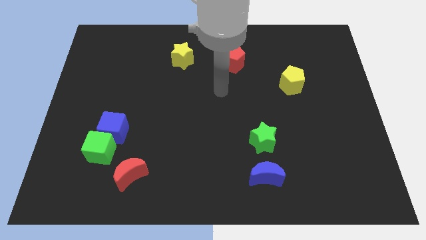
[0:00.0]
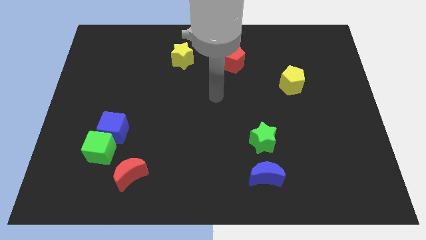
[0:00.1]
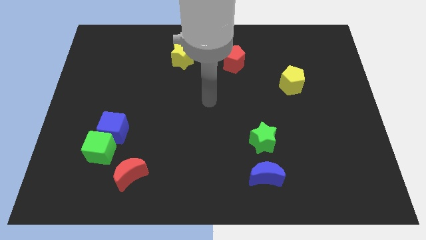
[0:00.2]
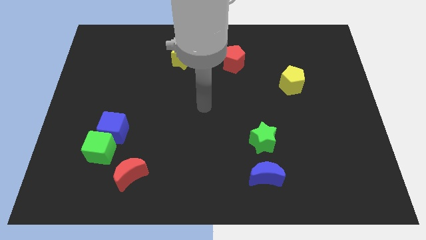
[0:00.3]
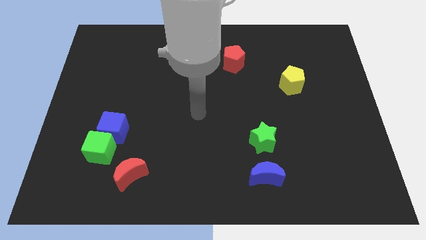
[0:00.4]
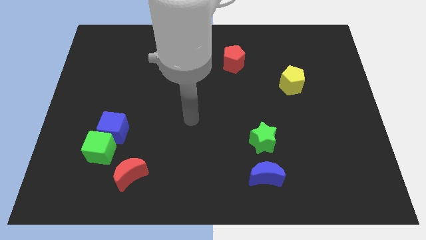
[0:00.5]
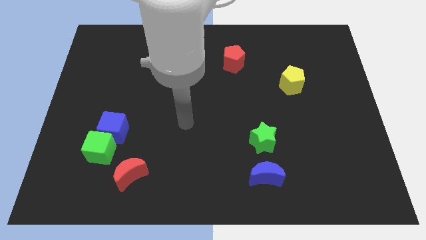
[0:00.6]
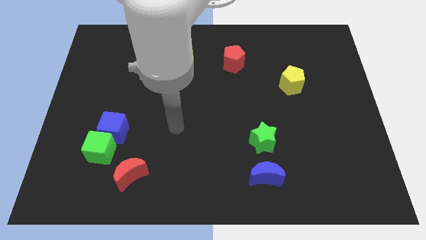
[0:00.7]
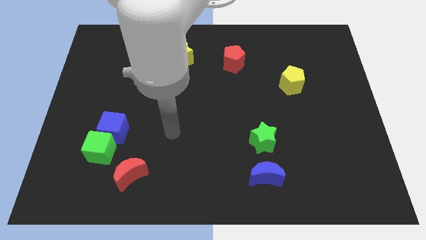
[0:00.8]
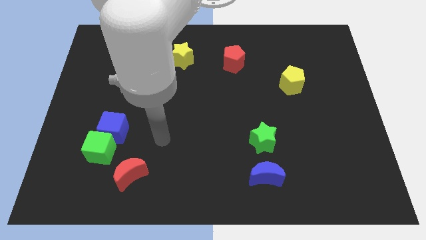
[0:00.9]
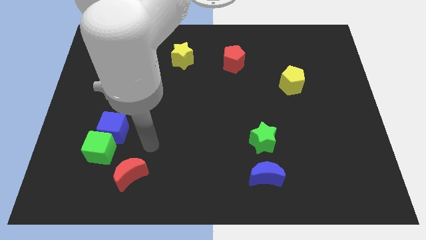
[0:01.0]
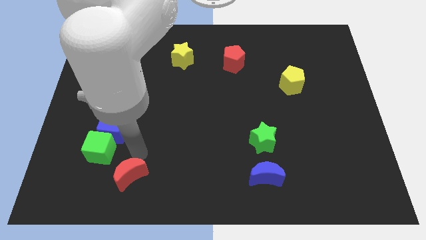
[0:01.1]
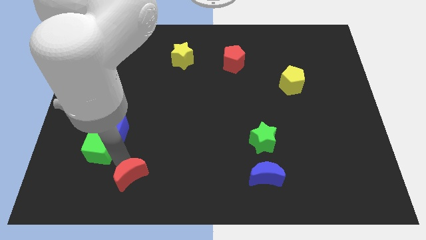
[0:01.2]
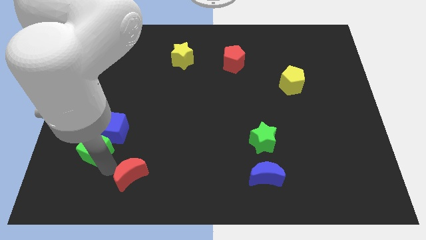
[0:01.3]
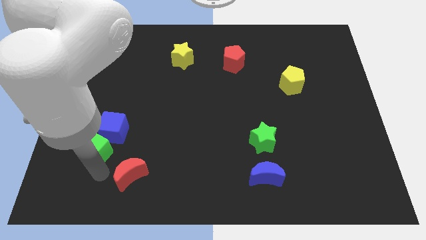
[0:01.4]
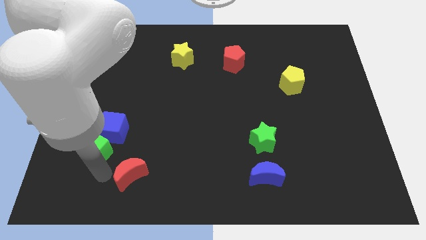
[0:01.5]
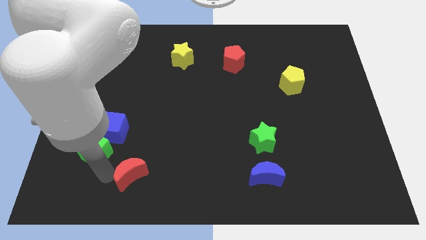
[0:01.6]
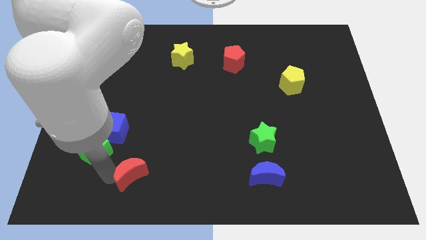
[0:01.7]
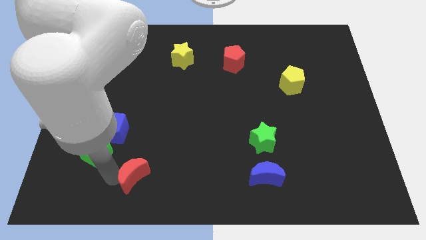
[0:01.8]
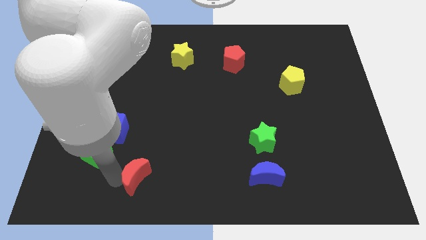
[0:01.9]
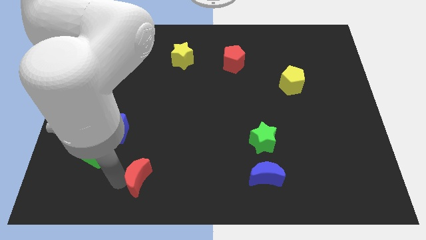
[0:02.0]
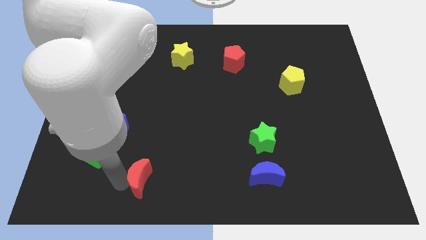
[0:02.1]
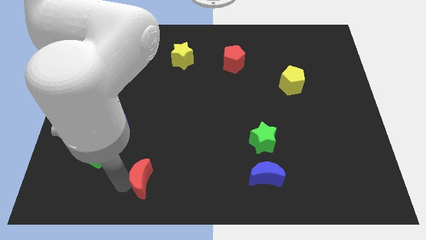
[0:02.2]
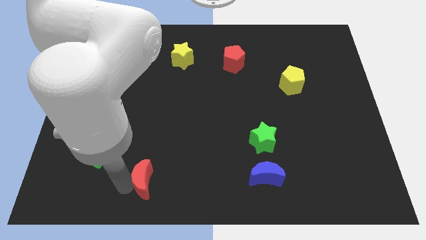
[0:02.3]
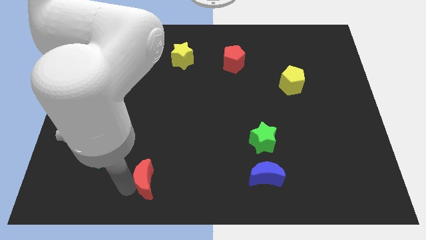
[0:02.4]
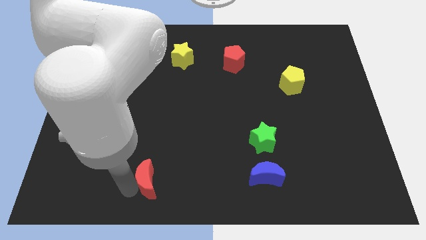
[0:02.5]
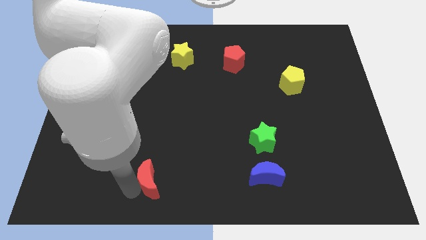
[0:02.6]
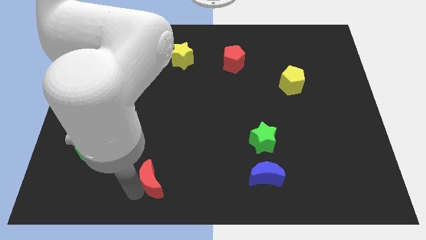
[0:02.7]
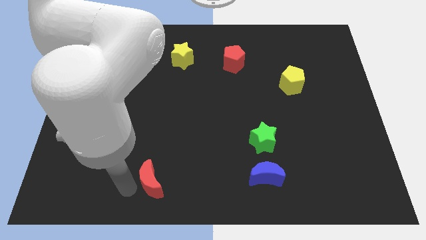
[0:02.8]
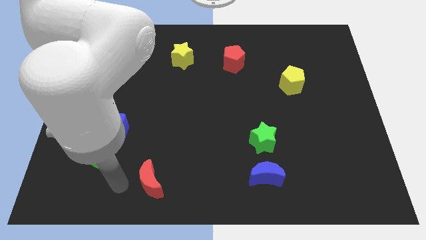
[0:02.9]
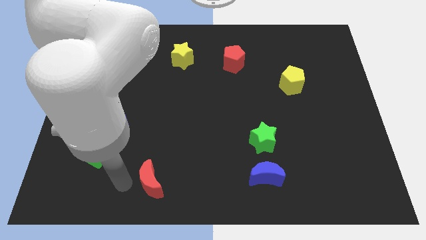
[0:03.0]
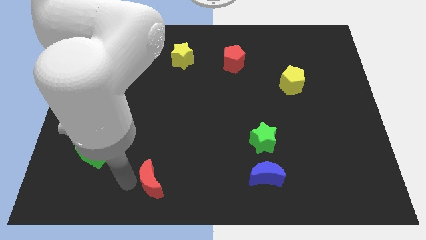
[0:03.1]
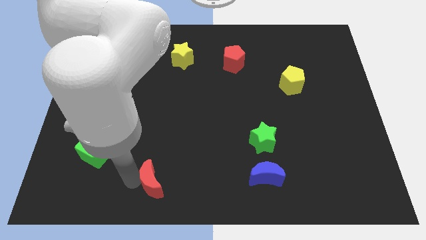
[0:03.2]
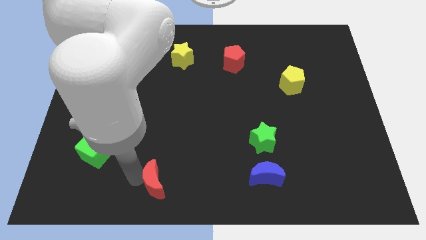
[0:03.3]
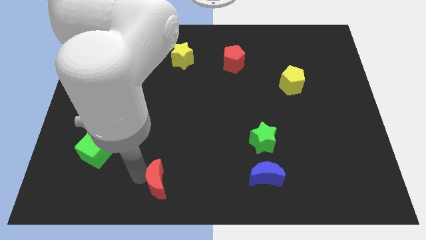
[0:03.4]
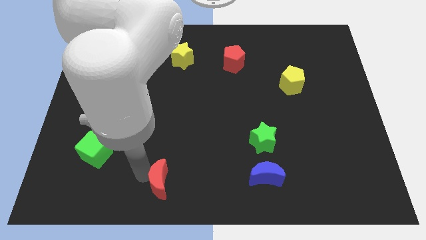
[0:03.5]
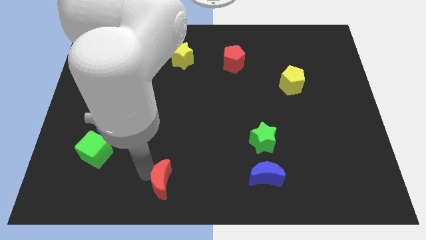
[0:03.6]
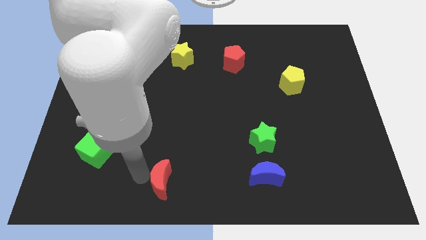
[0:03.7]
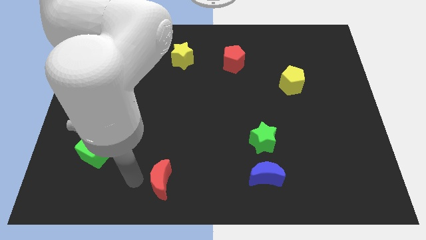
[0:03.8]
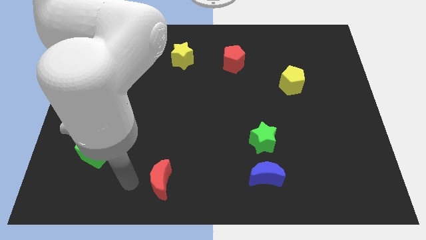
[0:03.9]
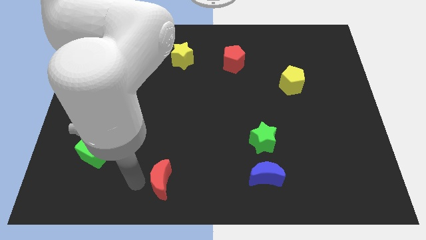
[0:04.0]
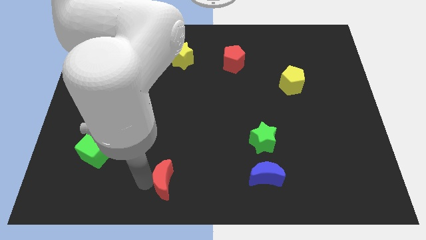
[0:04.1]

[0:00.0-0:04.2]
move the red moon to the right a little

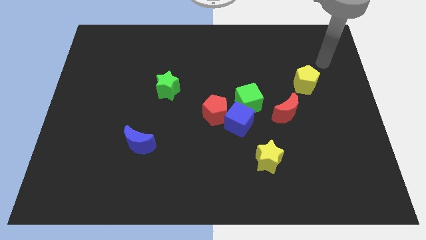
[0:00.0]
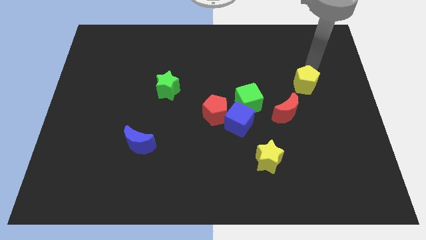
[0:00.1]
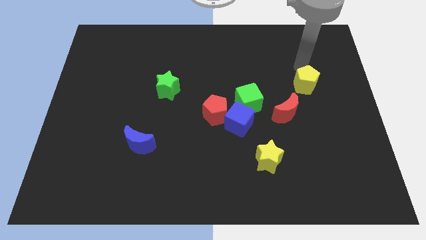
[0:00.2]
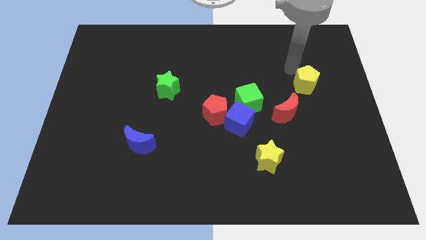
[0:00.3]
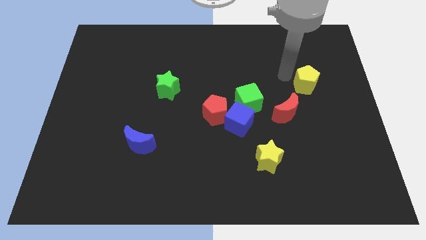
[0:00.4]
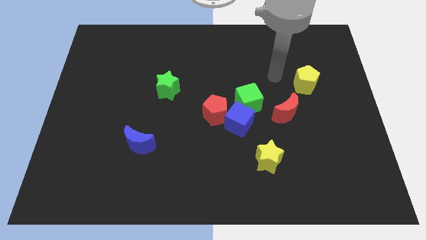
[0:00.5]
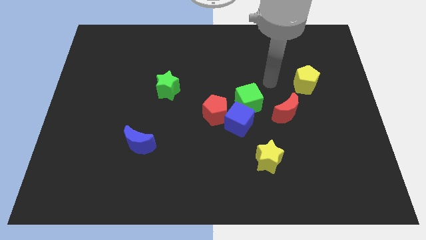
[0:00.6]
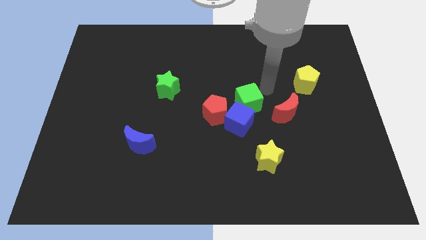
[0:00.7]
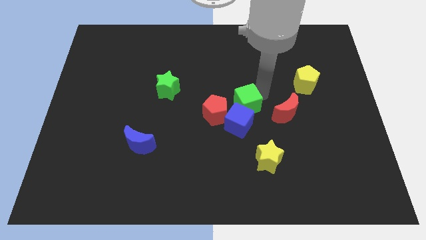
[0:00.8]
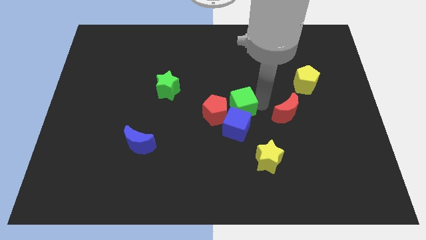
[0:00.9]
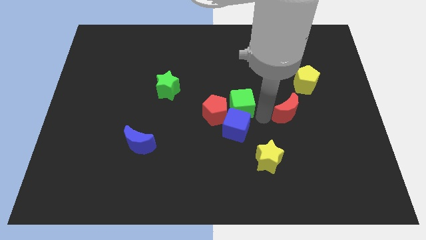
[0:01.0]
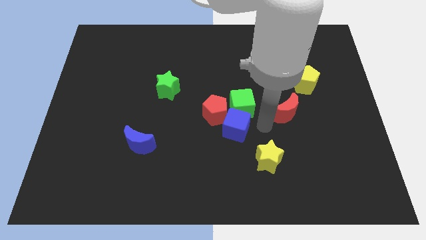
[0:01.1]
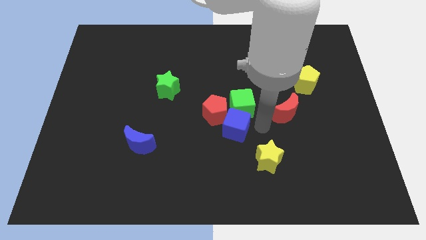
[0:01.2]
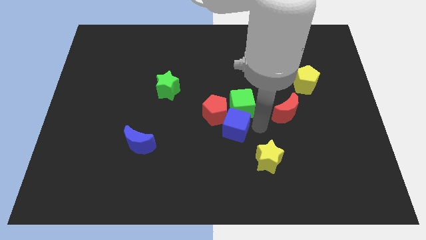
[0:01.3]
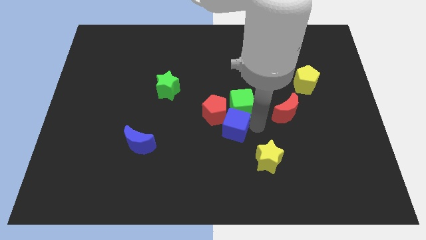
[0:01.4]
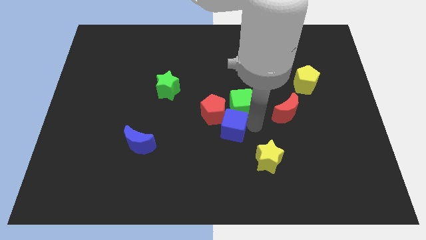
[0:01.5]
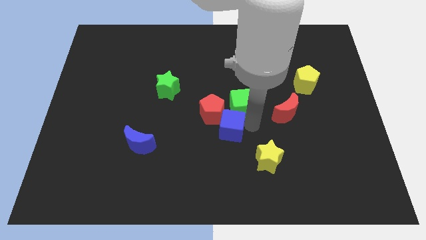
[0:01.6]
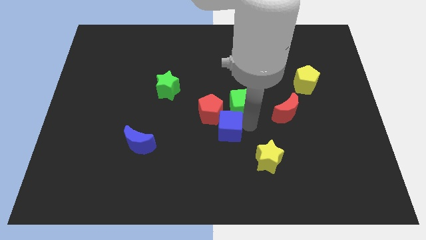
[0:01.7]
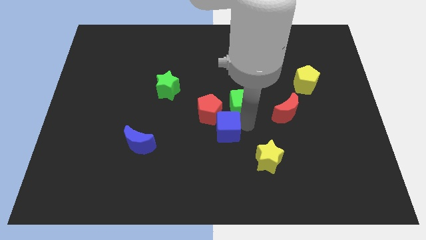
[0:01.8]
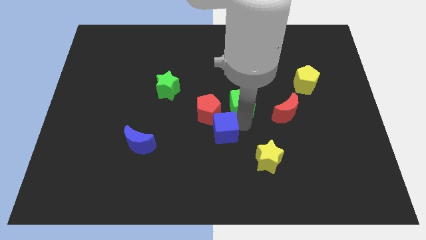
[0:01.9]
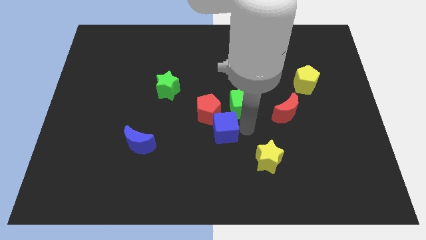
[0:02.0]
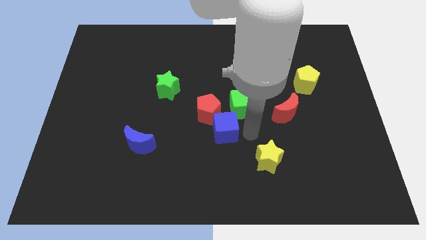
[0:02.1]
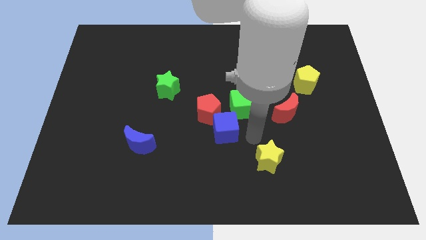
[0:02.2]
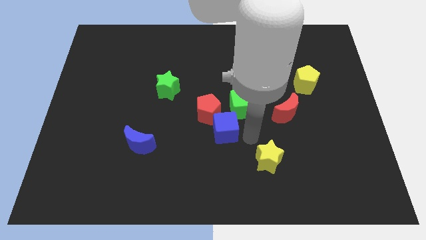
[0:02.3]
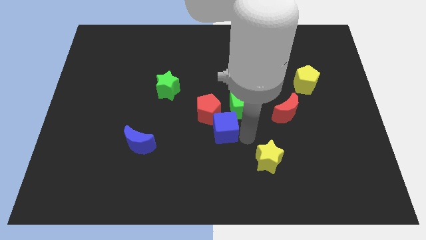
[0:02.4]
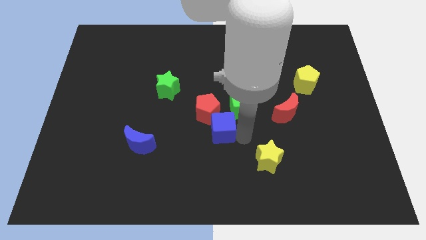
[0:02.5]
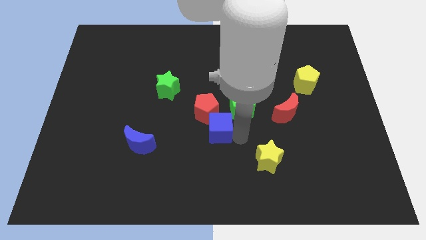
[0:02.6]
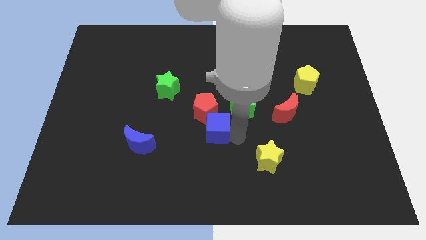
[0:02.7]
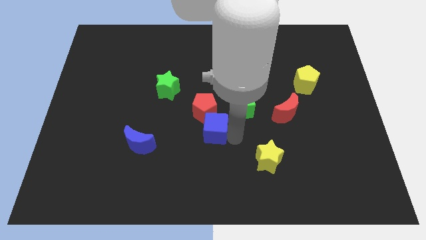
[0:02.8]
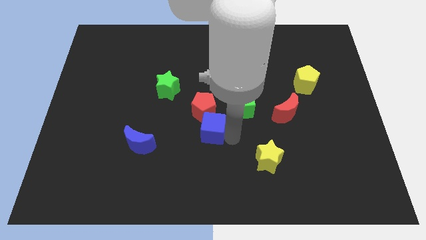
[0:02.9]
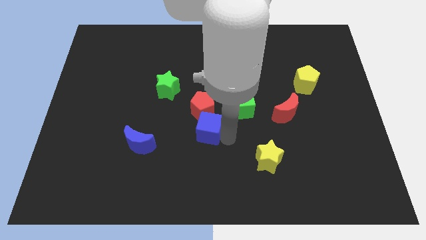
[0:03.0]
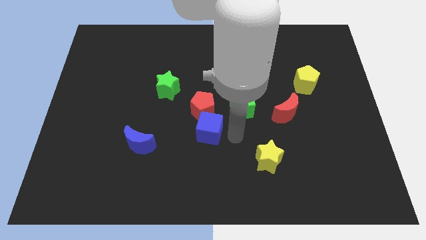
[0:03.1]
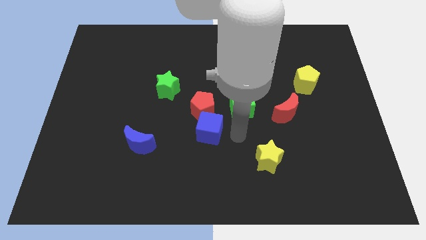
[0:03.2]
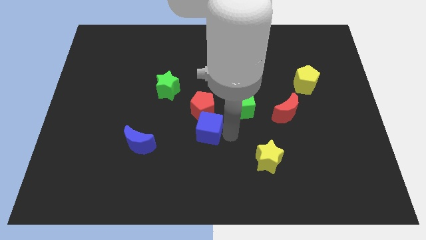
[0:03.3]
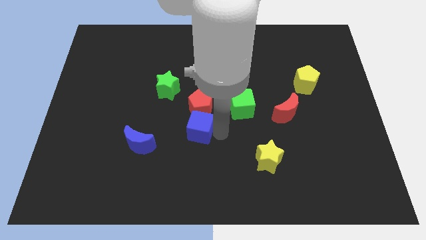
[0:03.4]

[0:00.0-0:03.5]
slightly slide the blue cube left

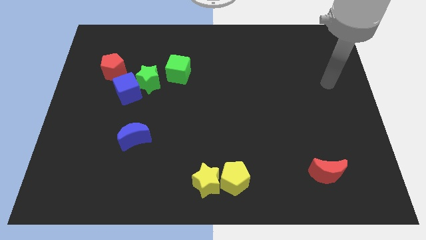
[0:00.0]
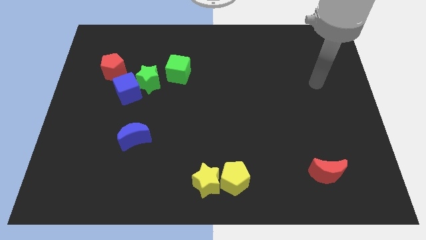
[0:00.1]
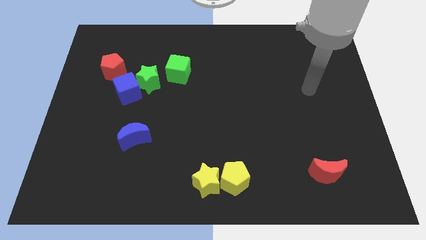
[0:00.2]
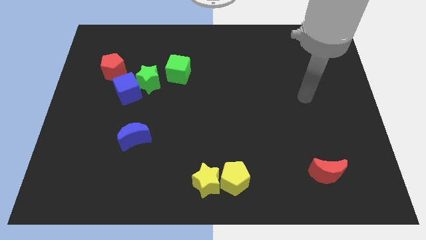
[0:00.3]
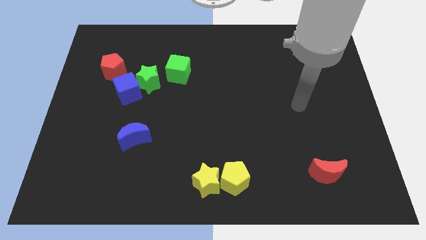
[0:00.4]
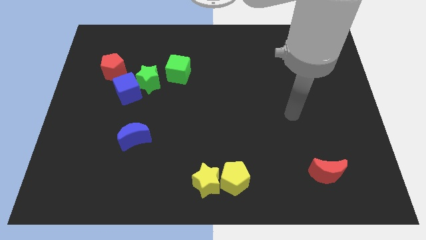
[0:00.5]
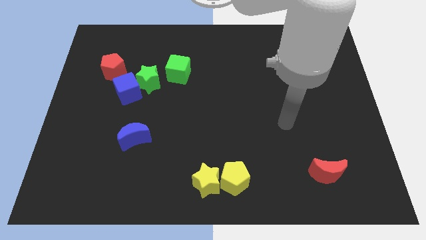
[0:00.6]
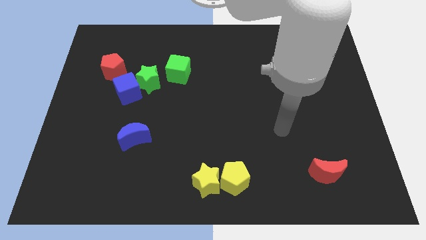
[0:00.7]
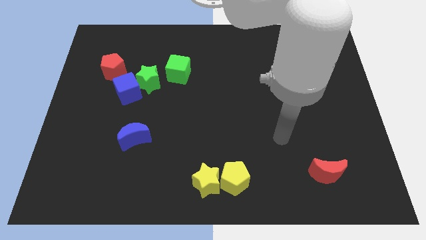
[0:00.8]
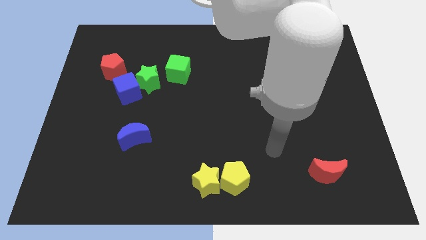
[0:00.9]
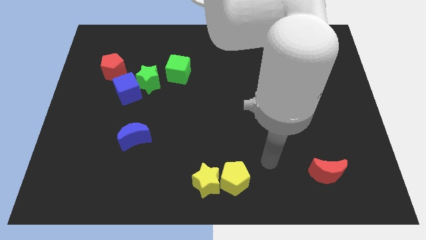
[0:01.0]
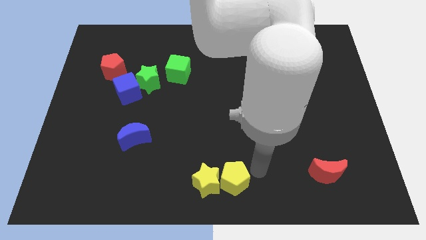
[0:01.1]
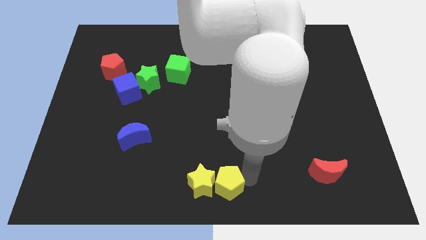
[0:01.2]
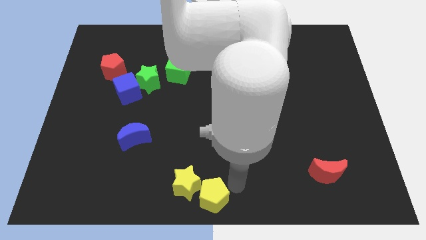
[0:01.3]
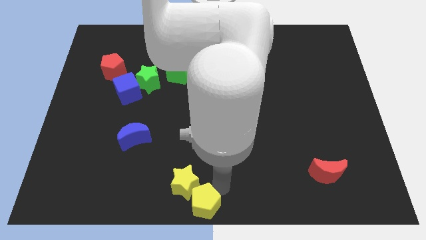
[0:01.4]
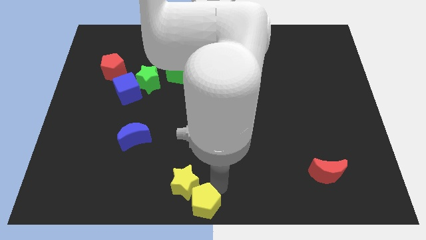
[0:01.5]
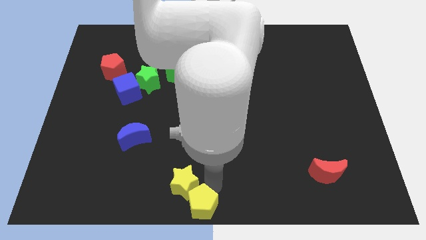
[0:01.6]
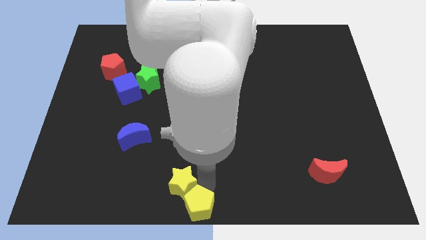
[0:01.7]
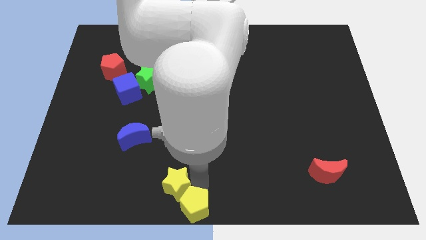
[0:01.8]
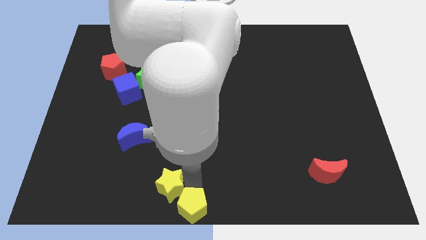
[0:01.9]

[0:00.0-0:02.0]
slightly push the yellow star to the left
